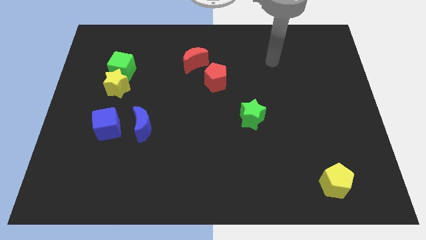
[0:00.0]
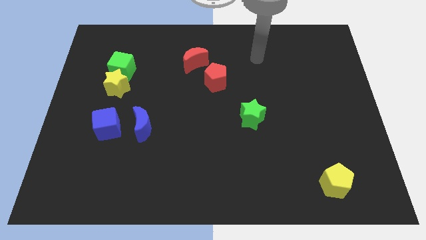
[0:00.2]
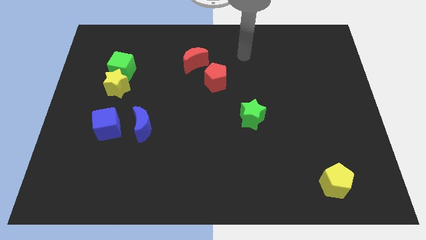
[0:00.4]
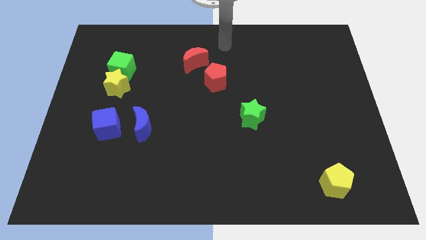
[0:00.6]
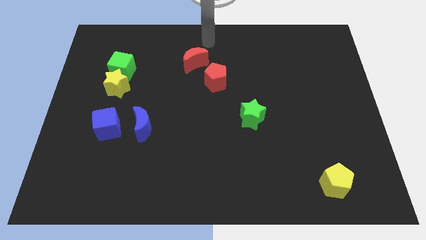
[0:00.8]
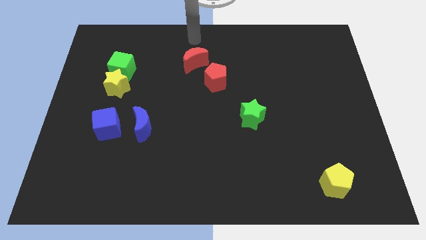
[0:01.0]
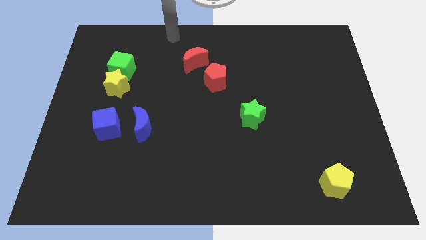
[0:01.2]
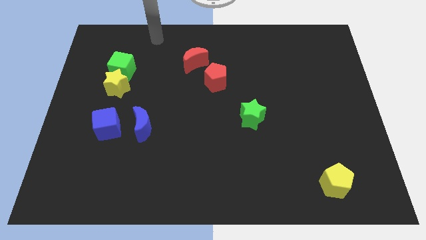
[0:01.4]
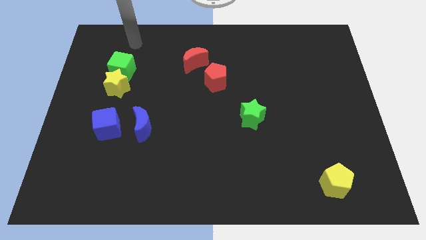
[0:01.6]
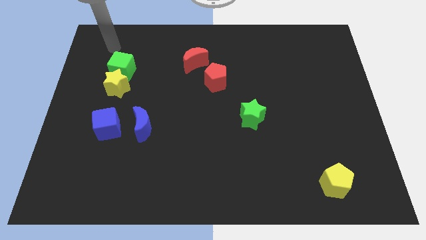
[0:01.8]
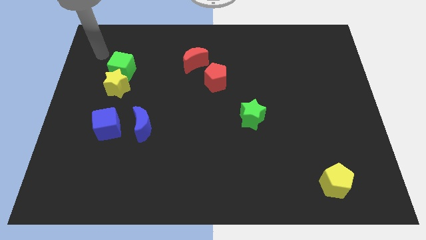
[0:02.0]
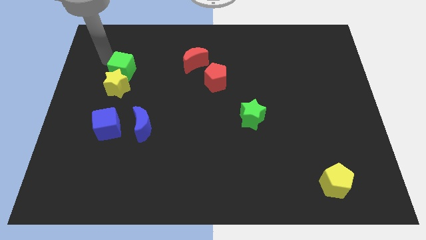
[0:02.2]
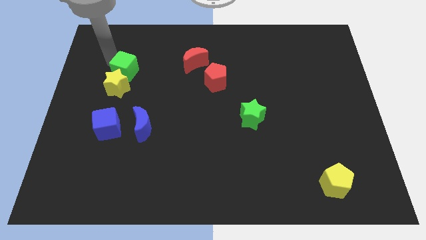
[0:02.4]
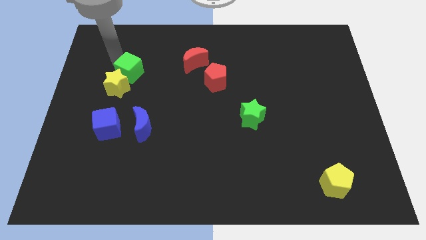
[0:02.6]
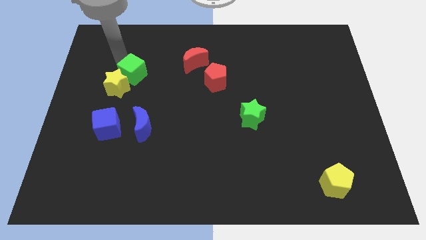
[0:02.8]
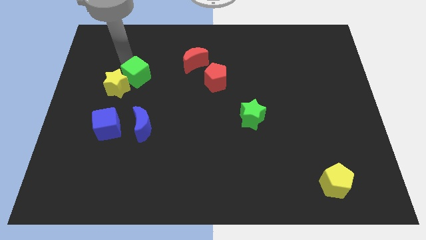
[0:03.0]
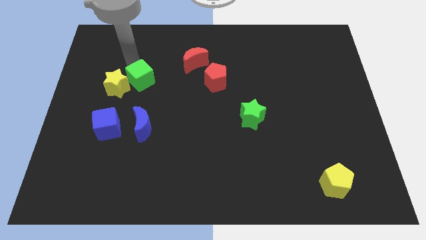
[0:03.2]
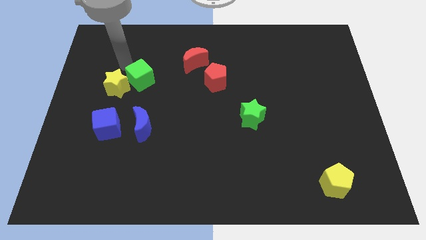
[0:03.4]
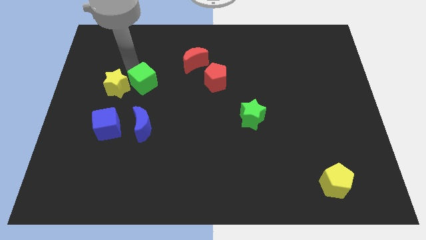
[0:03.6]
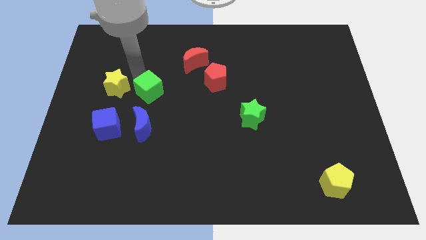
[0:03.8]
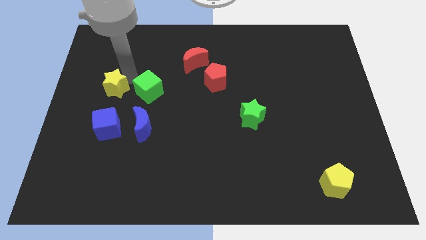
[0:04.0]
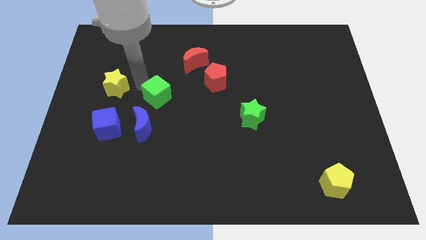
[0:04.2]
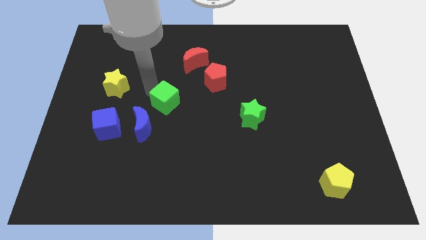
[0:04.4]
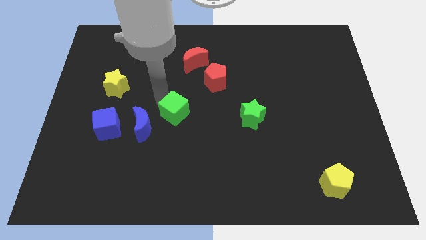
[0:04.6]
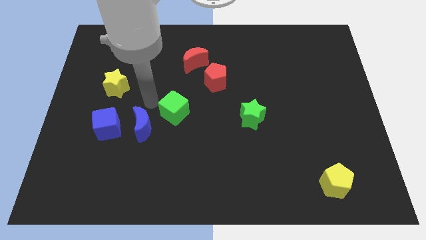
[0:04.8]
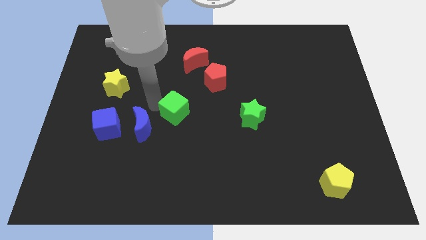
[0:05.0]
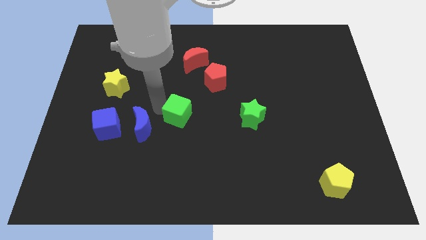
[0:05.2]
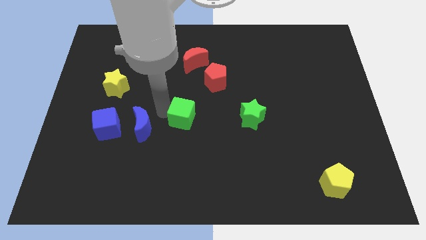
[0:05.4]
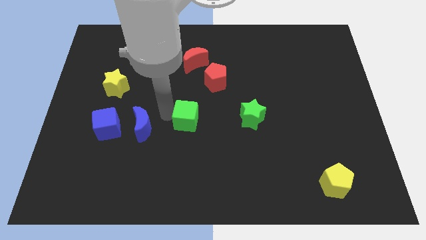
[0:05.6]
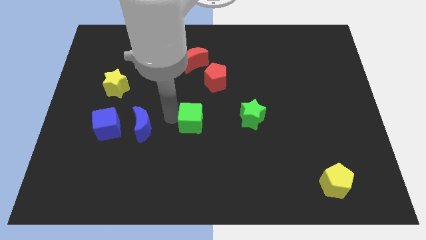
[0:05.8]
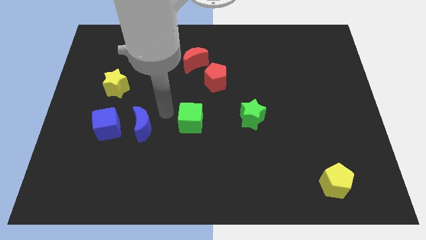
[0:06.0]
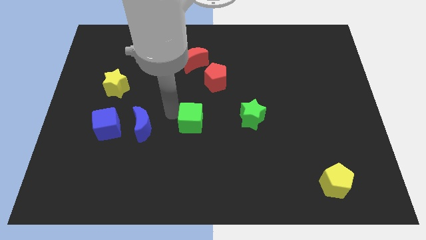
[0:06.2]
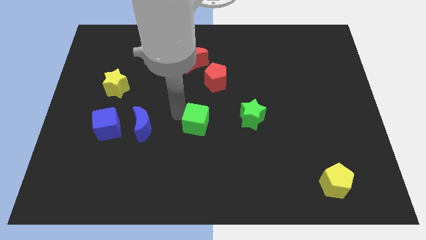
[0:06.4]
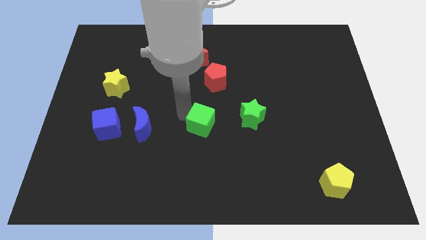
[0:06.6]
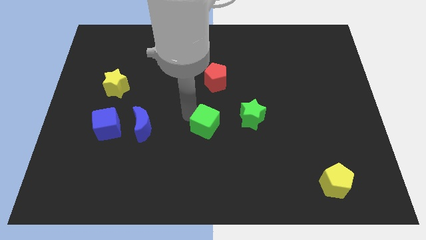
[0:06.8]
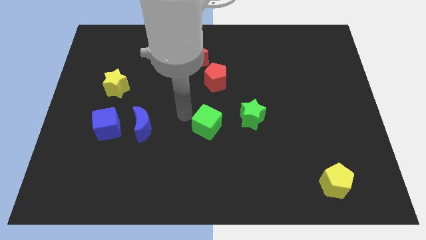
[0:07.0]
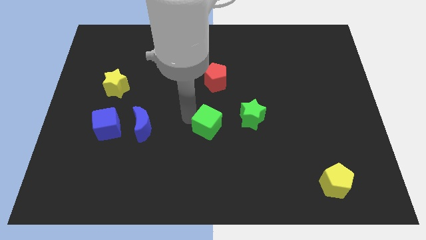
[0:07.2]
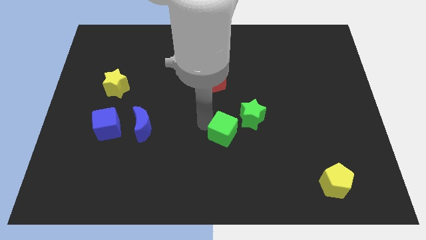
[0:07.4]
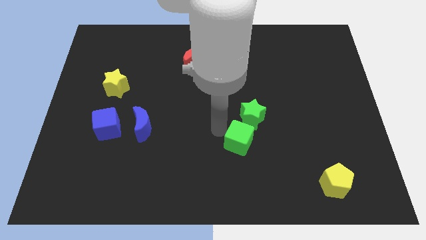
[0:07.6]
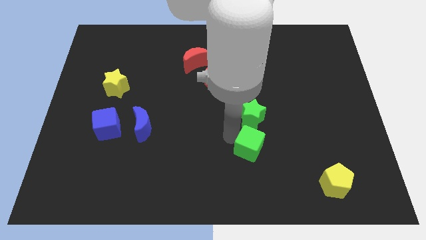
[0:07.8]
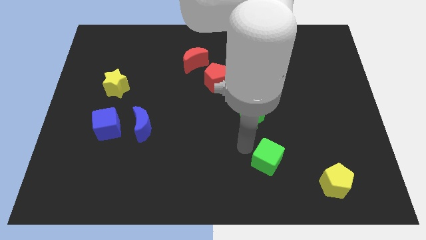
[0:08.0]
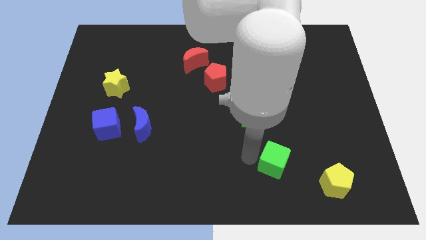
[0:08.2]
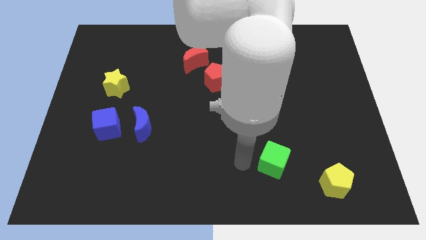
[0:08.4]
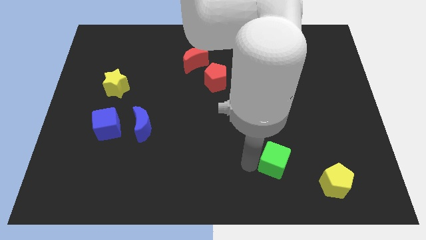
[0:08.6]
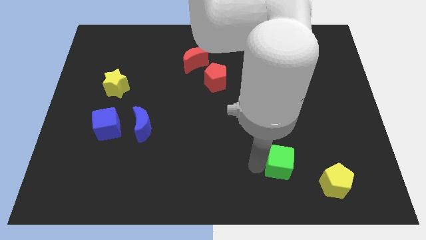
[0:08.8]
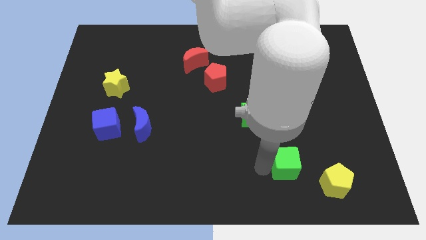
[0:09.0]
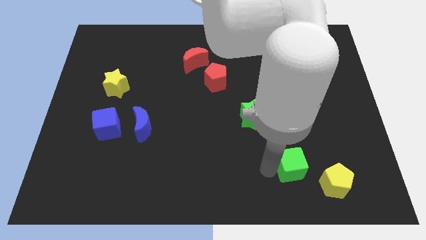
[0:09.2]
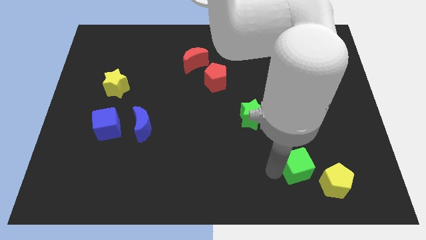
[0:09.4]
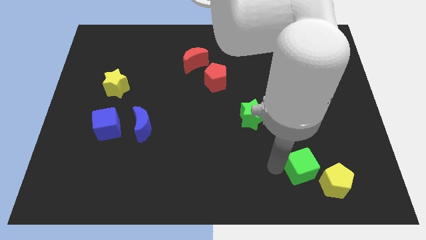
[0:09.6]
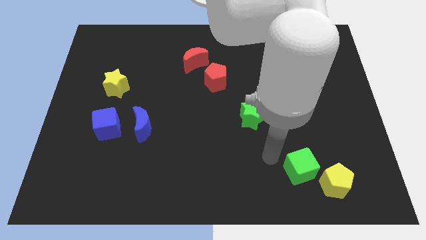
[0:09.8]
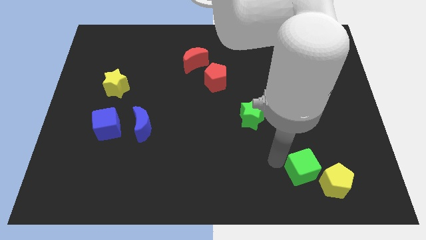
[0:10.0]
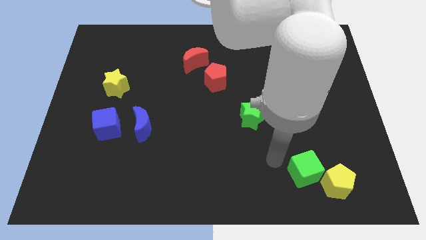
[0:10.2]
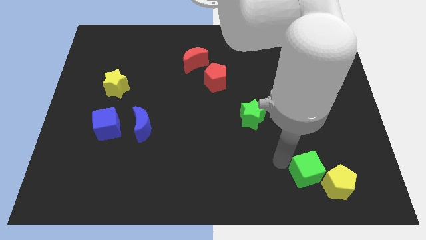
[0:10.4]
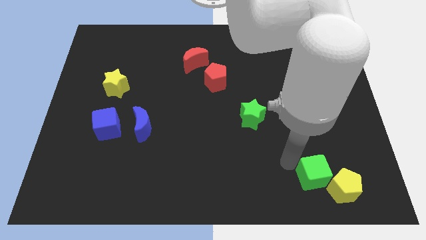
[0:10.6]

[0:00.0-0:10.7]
slide the green cube towards the yellow pentagon

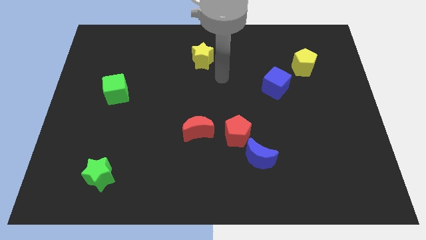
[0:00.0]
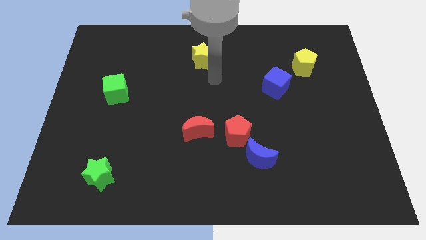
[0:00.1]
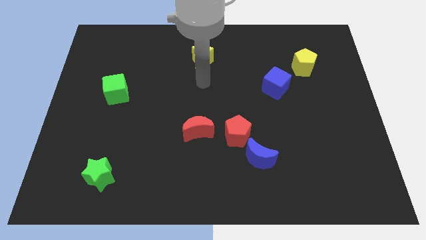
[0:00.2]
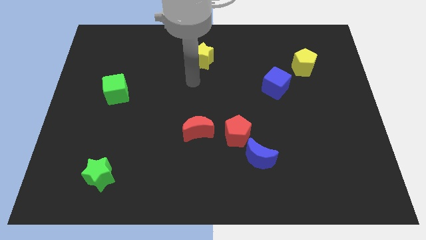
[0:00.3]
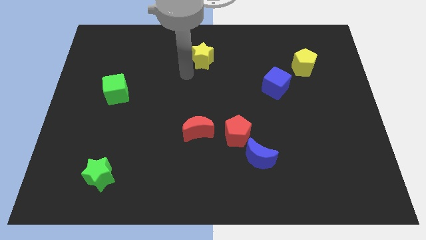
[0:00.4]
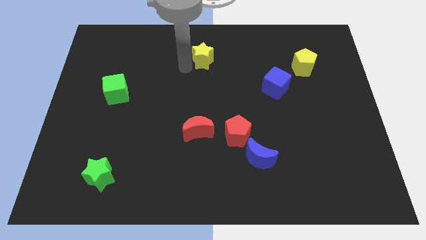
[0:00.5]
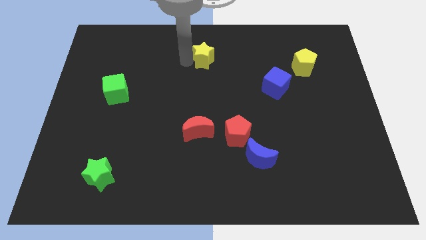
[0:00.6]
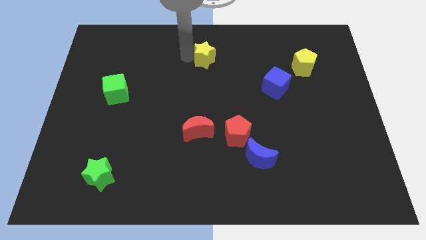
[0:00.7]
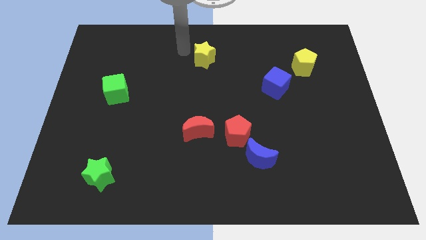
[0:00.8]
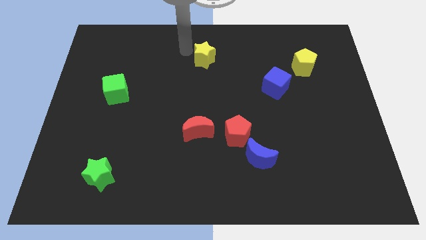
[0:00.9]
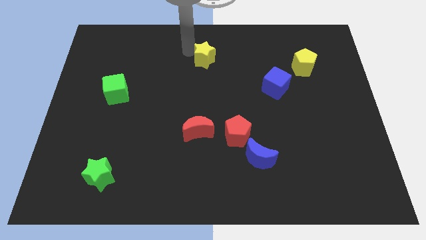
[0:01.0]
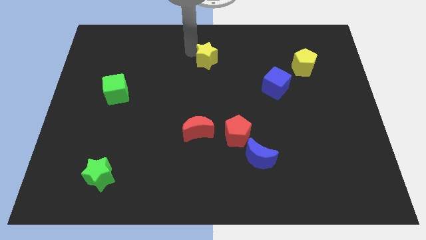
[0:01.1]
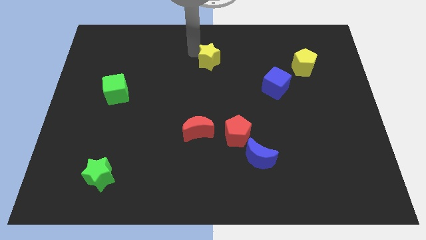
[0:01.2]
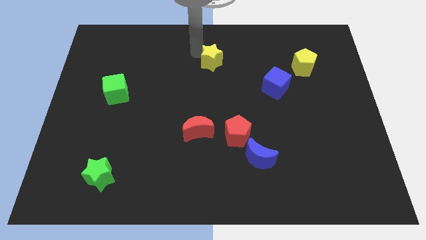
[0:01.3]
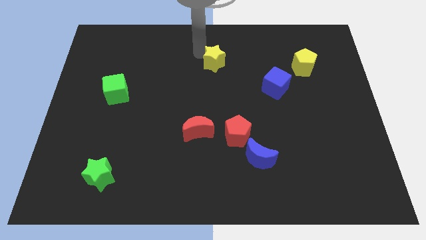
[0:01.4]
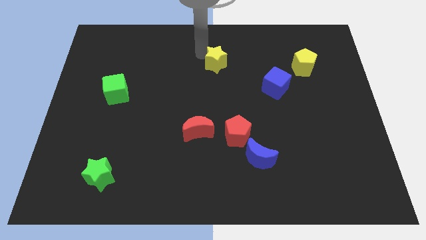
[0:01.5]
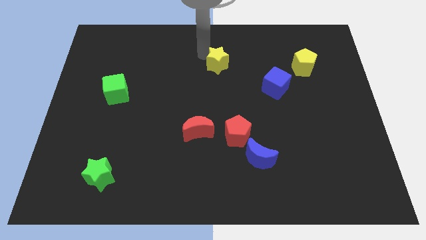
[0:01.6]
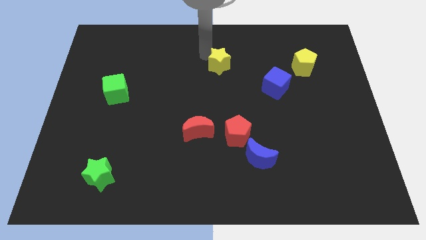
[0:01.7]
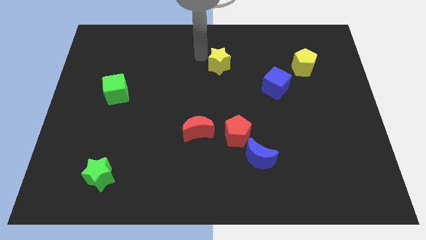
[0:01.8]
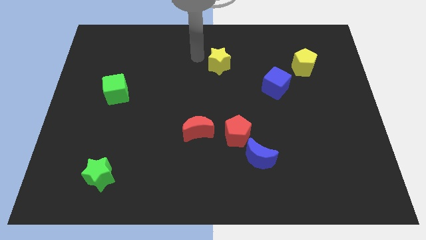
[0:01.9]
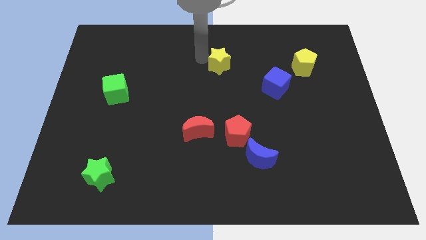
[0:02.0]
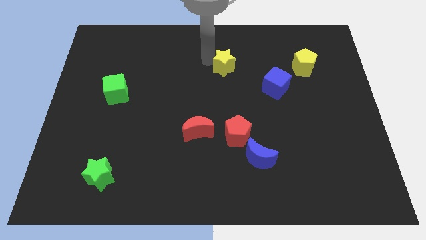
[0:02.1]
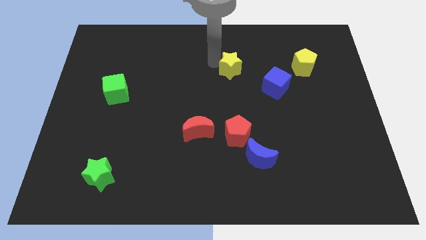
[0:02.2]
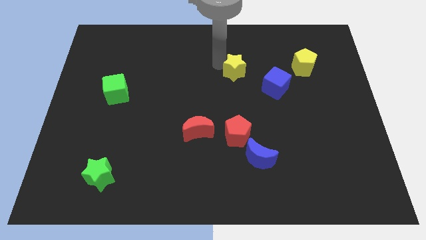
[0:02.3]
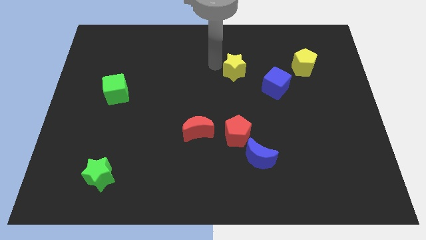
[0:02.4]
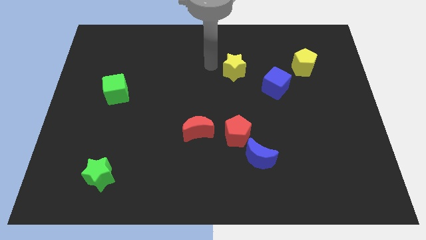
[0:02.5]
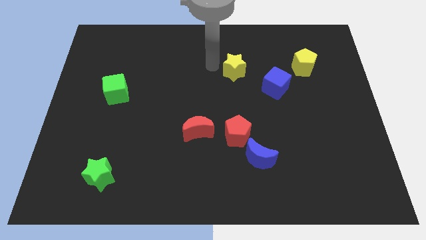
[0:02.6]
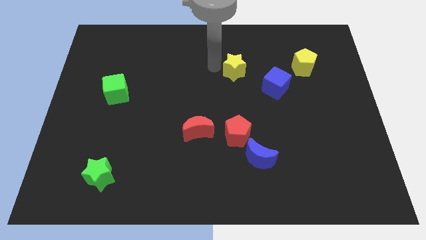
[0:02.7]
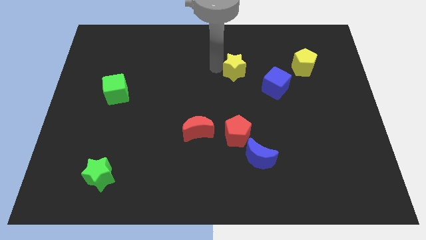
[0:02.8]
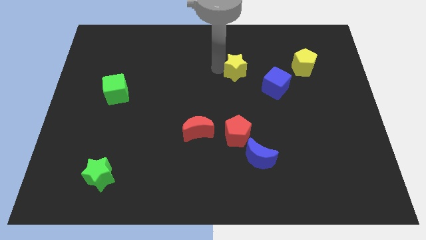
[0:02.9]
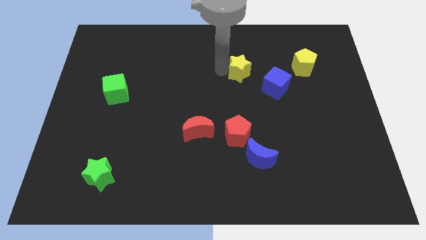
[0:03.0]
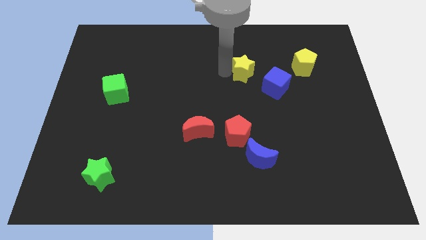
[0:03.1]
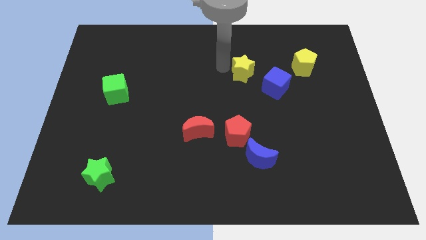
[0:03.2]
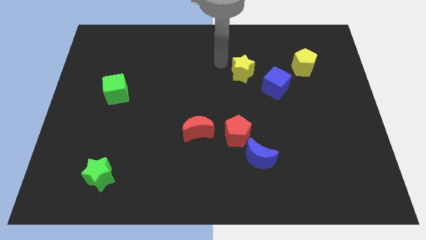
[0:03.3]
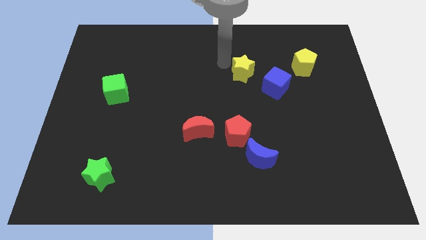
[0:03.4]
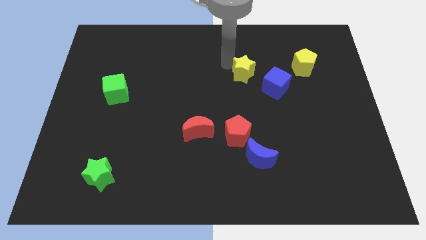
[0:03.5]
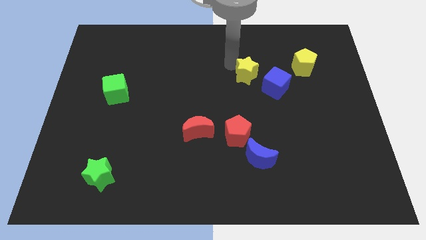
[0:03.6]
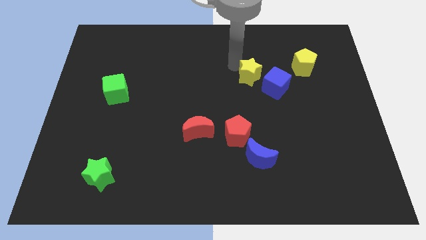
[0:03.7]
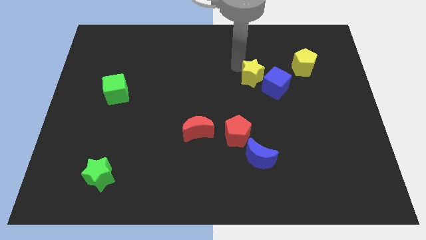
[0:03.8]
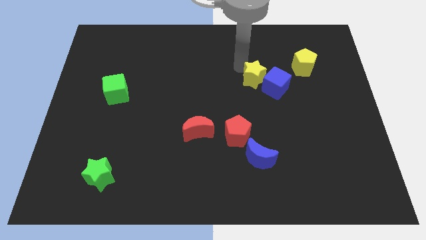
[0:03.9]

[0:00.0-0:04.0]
put the yellow star close to the blue cube
